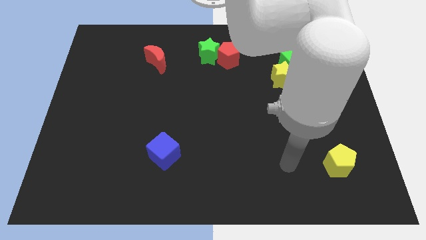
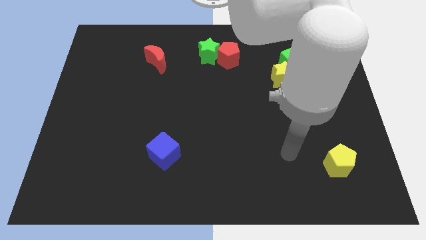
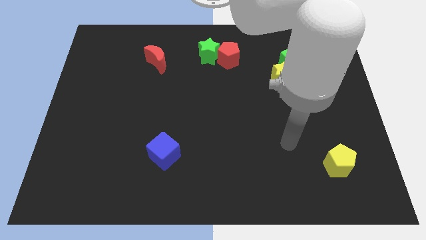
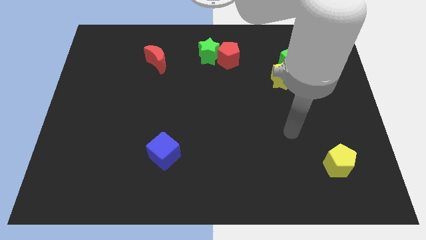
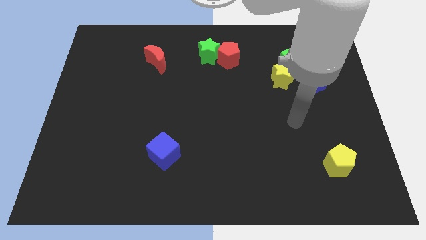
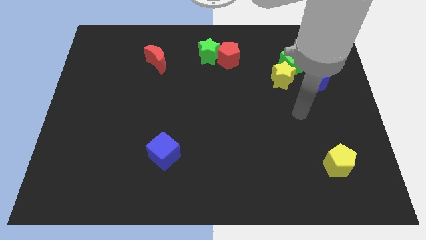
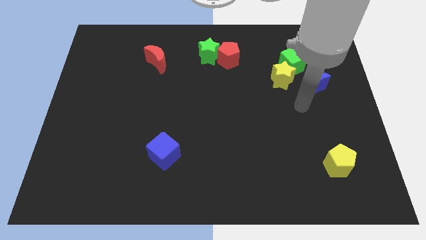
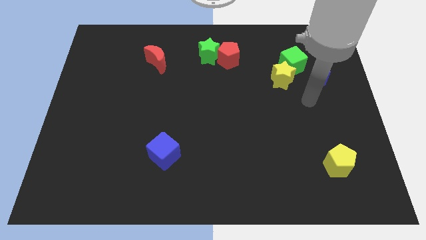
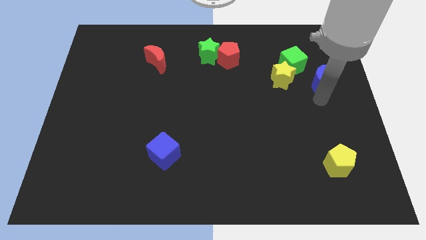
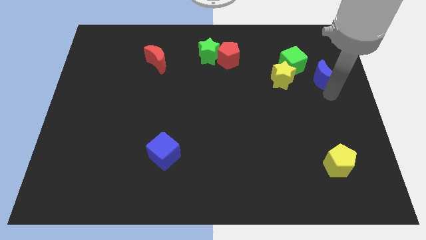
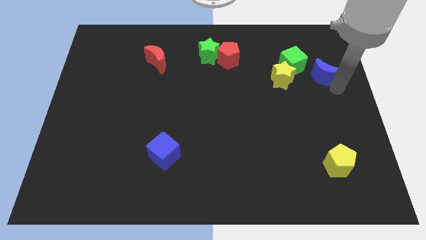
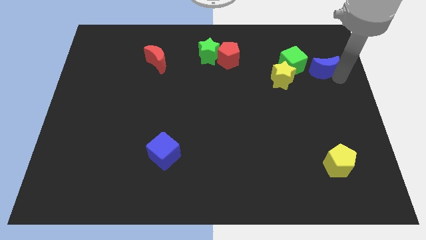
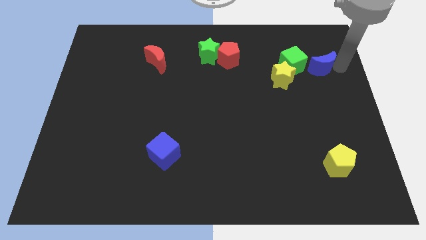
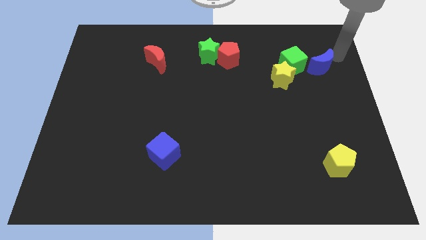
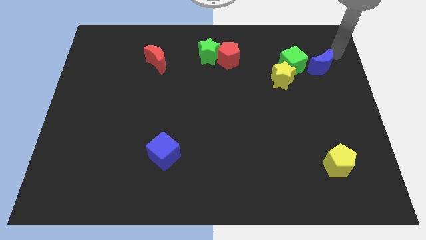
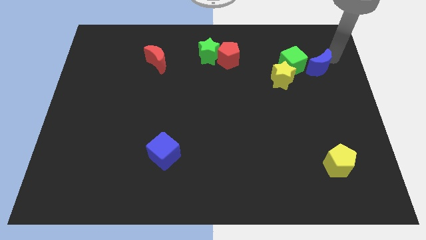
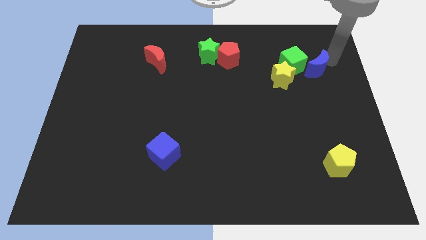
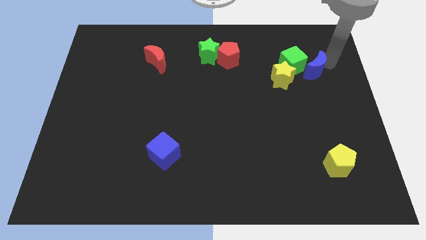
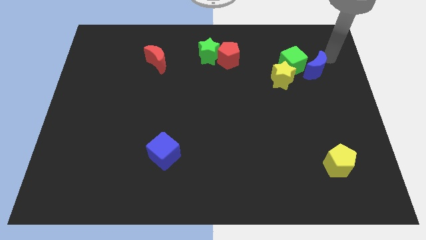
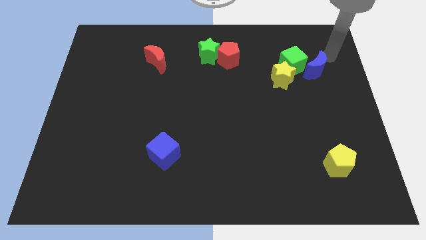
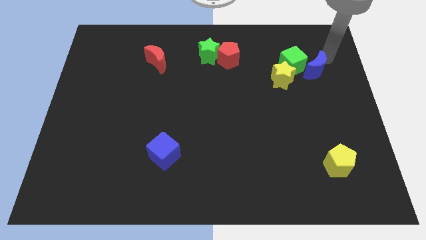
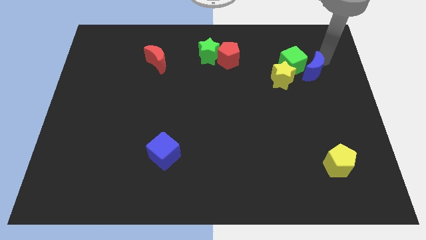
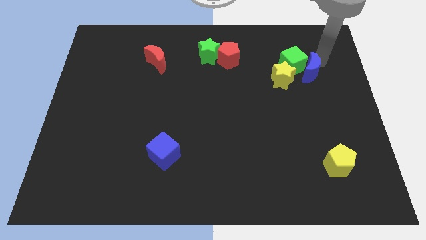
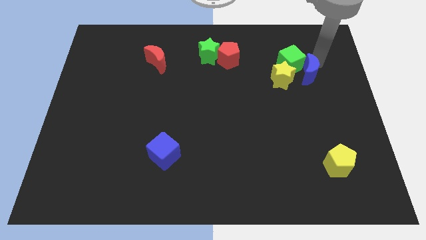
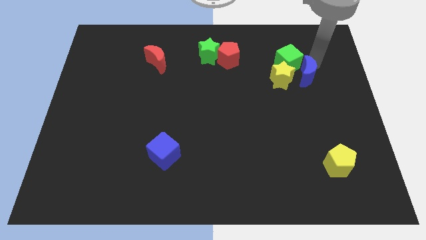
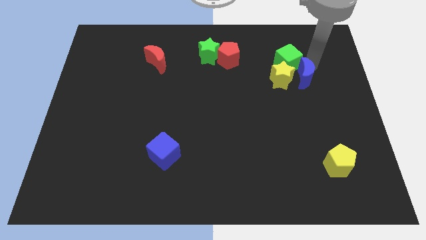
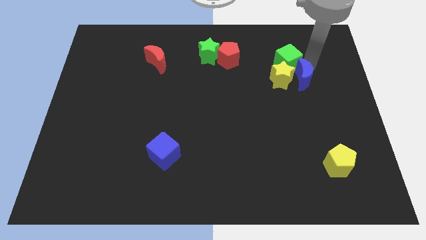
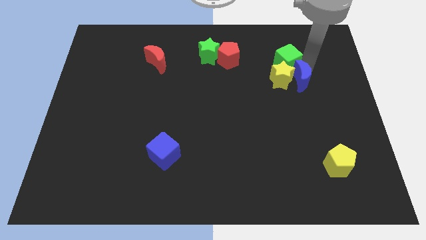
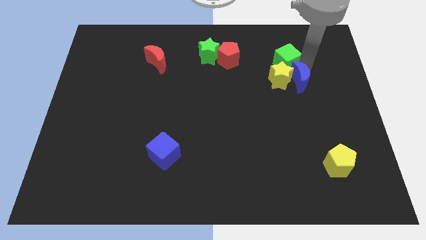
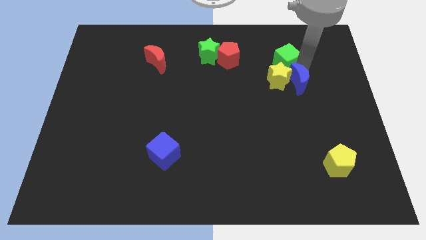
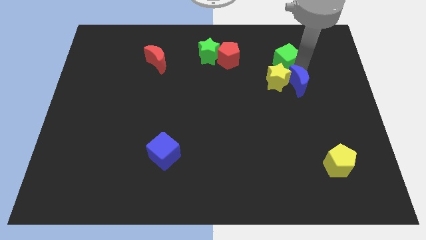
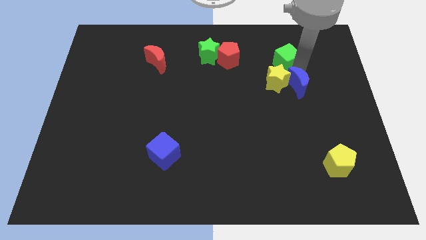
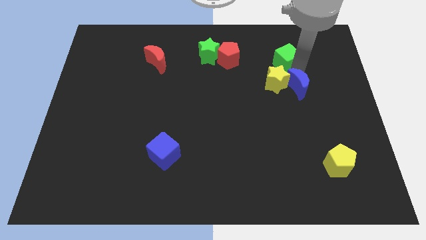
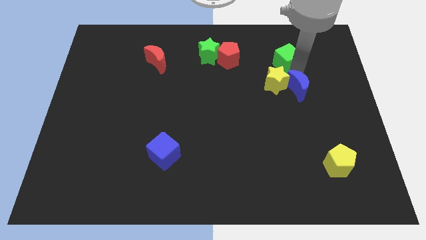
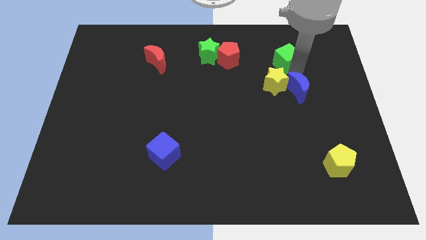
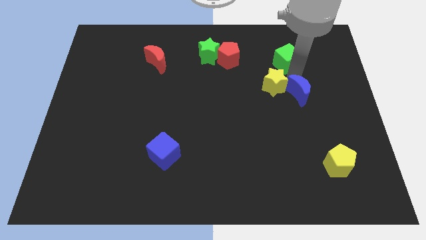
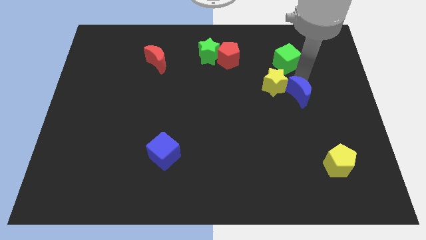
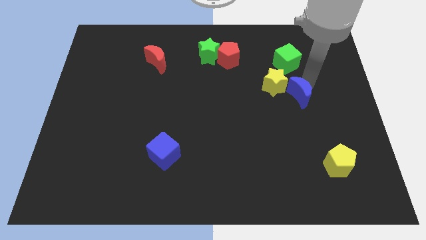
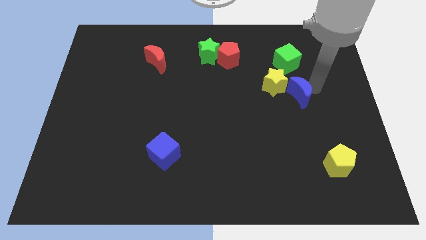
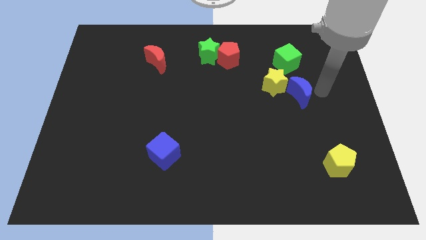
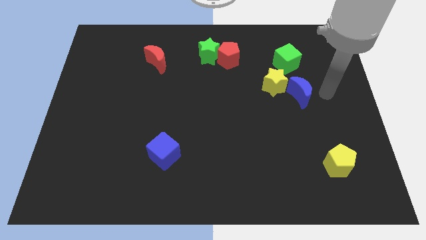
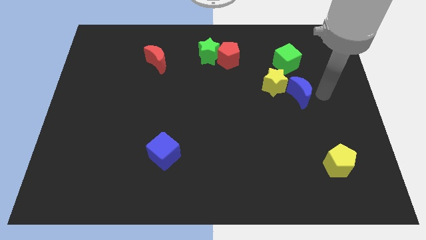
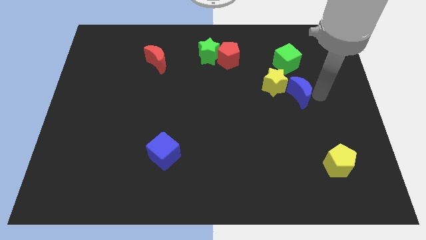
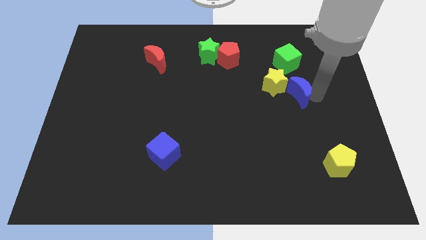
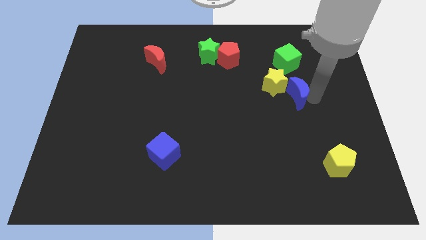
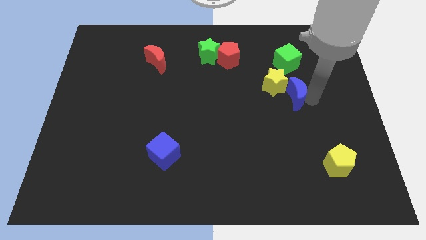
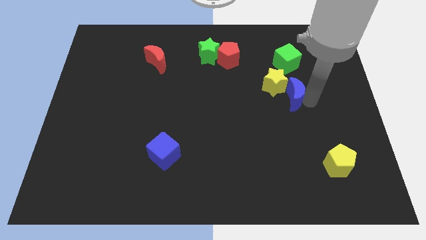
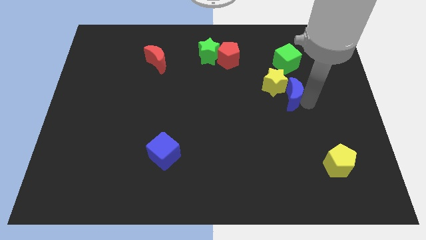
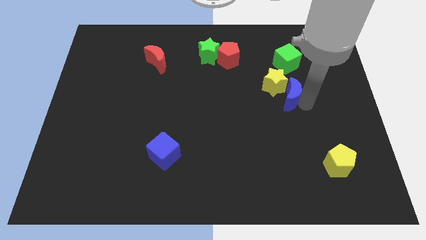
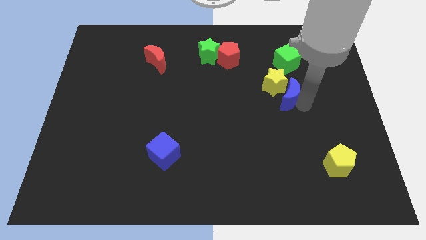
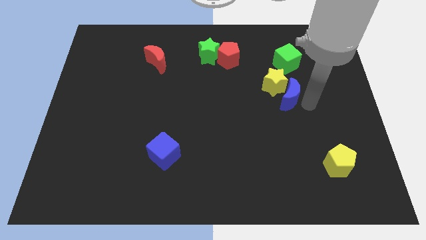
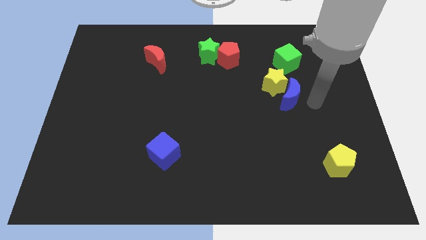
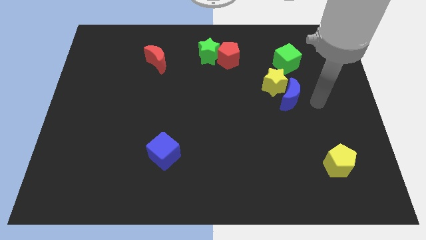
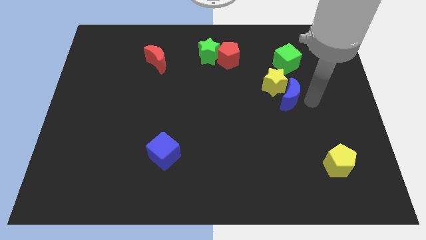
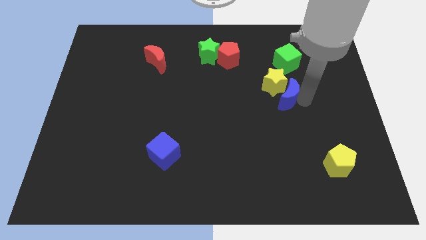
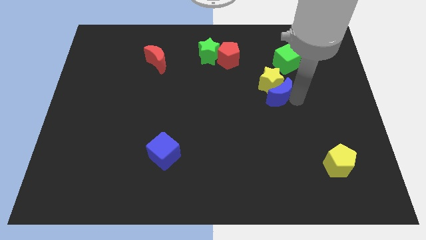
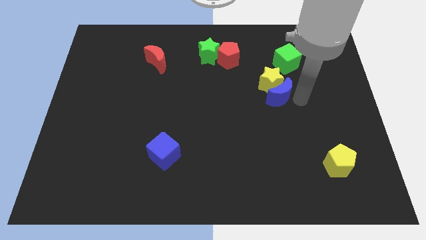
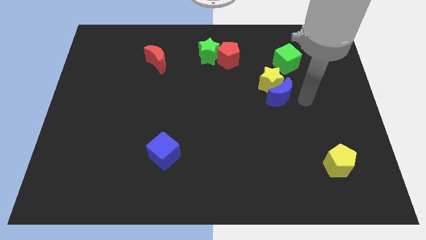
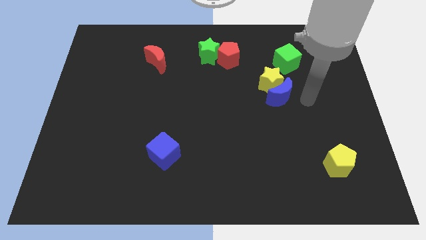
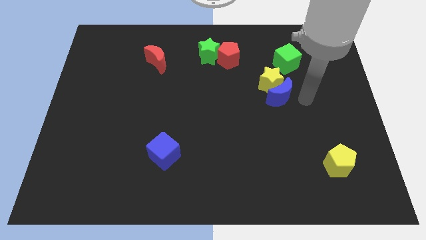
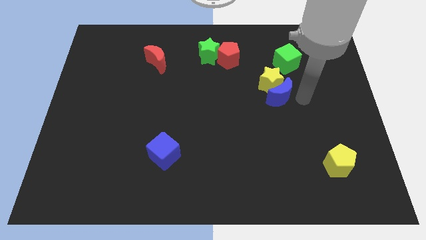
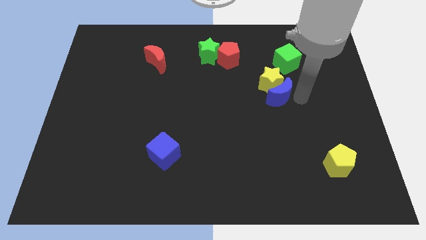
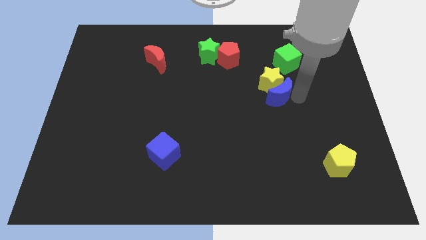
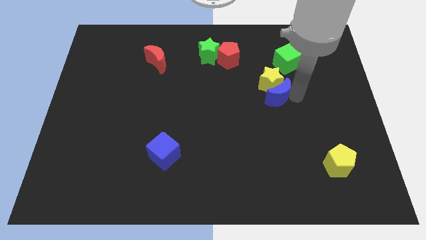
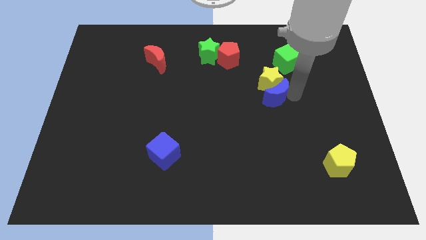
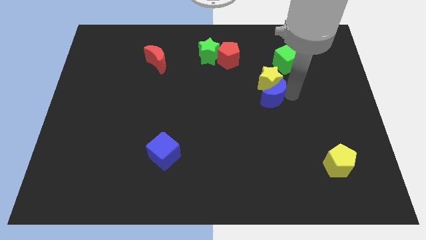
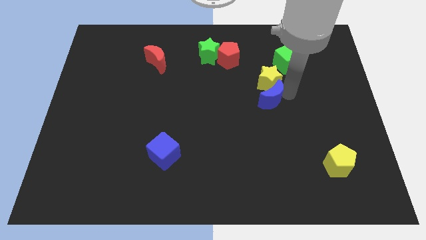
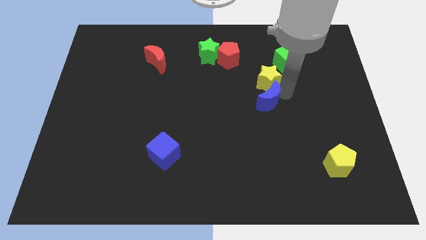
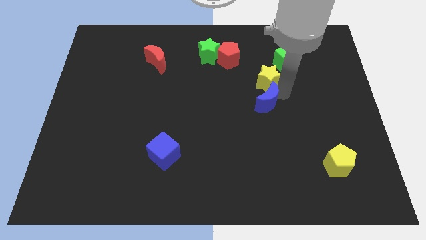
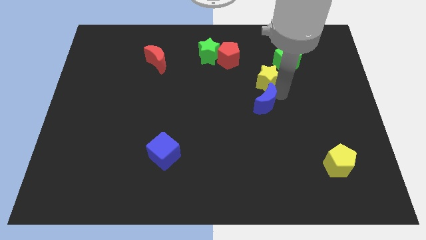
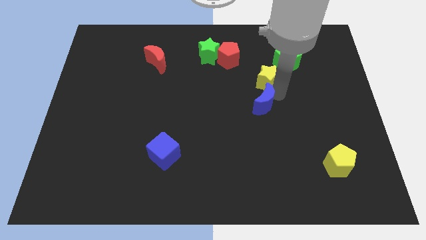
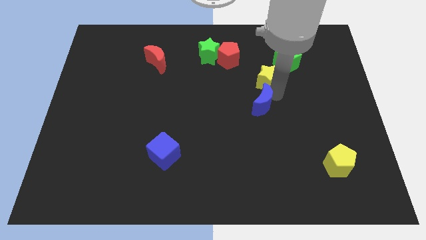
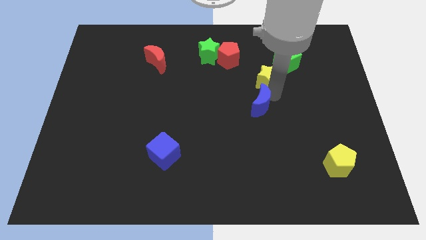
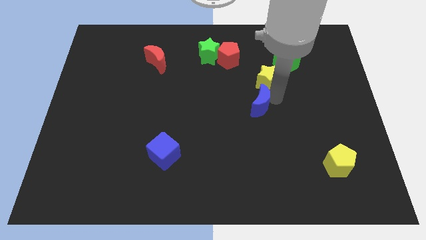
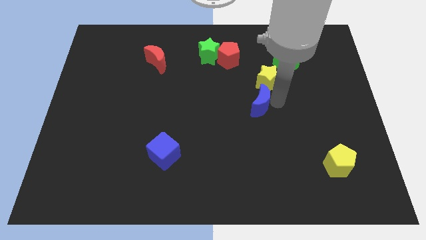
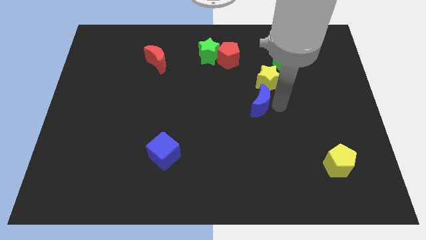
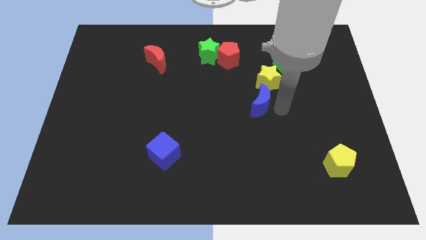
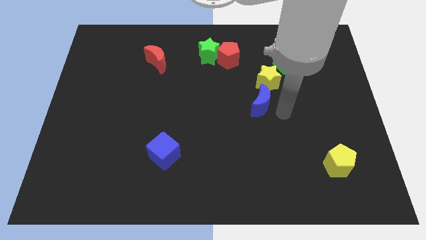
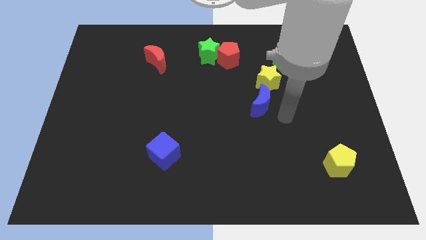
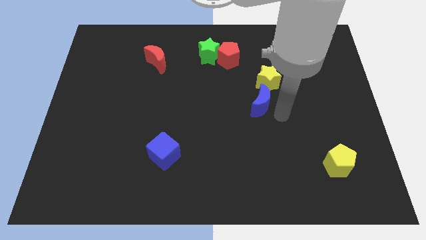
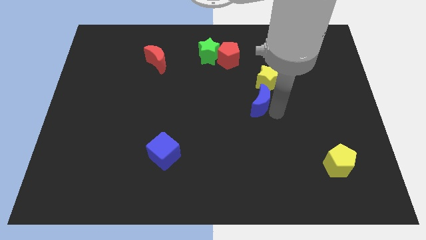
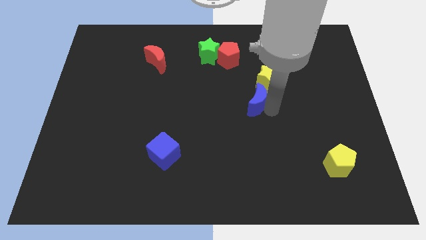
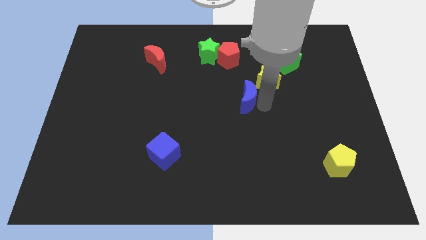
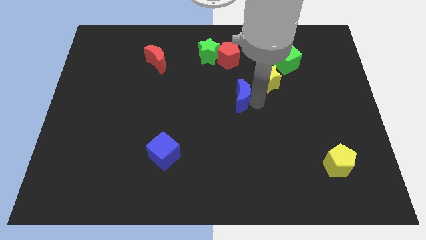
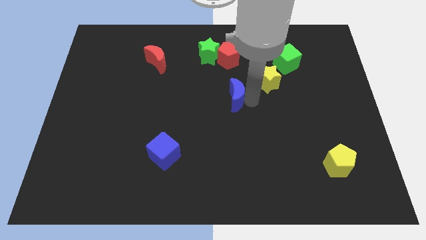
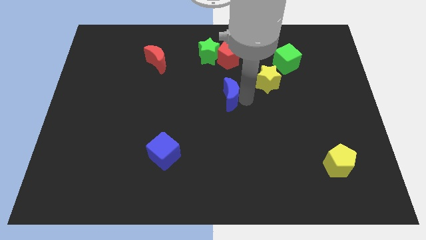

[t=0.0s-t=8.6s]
push the blue moon to the left
